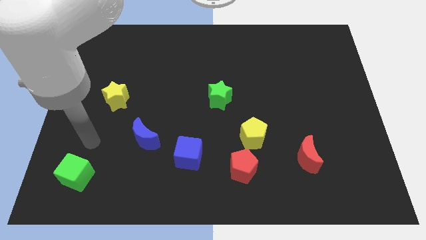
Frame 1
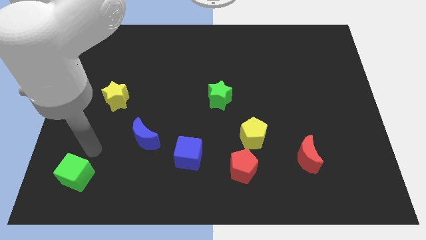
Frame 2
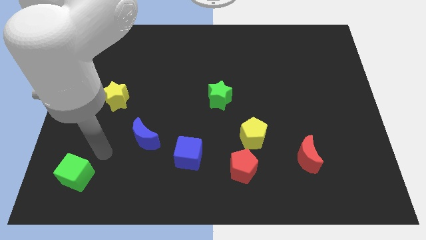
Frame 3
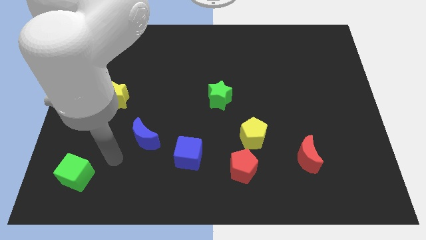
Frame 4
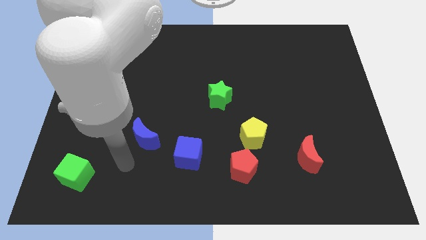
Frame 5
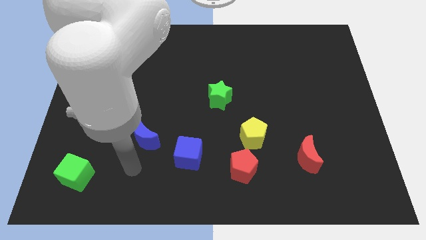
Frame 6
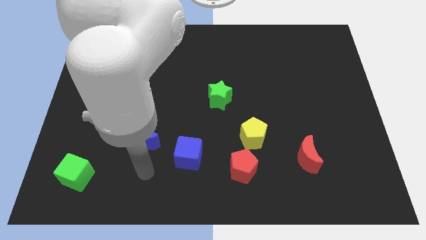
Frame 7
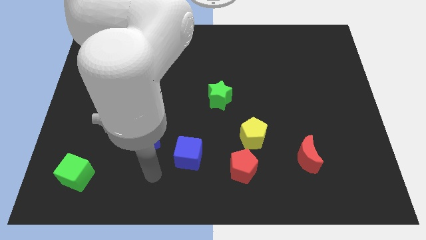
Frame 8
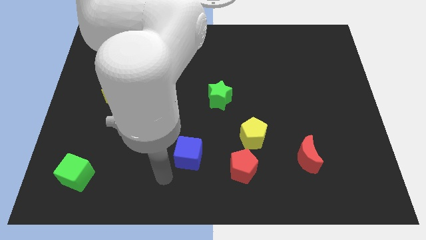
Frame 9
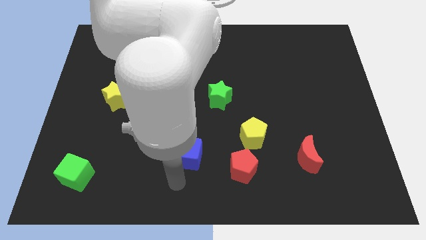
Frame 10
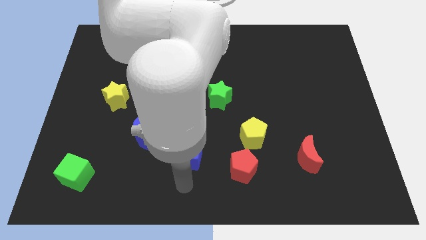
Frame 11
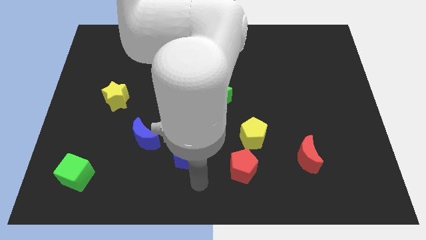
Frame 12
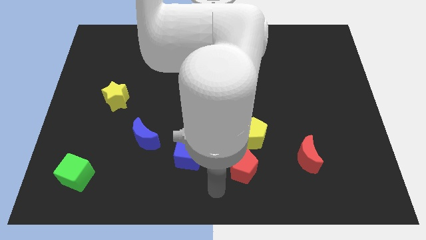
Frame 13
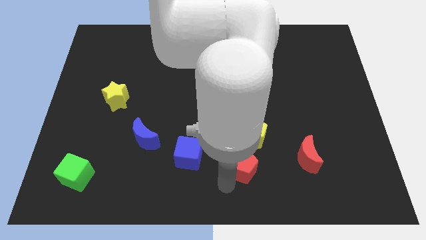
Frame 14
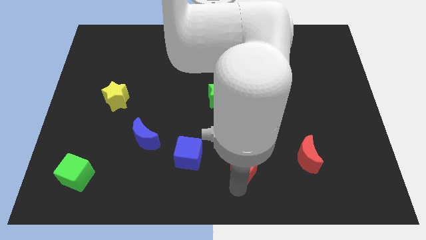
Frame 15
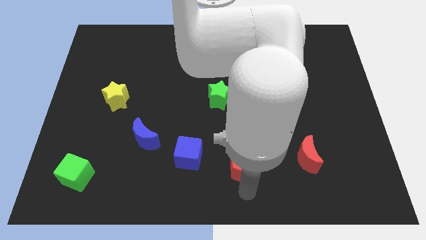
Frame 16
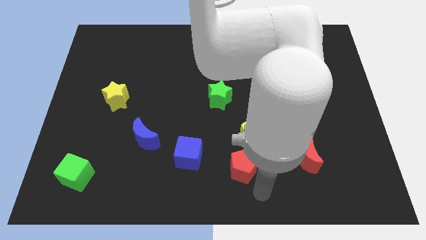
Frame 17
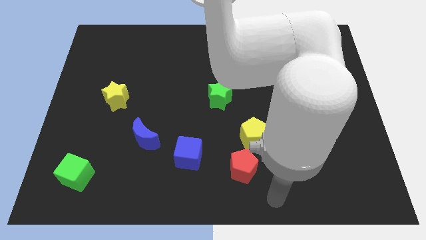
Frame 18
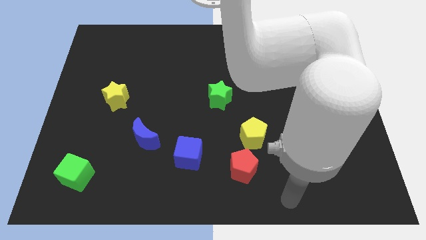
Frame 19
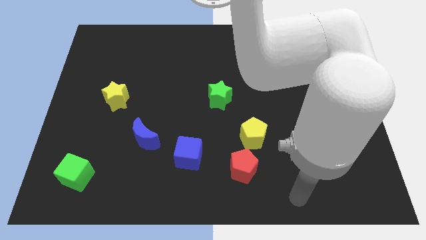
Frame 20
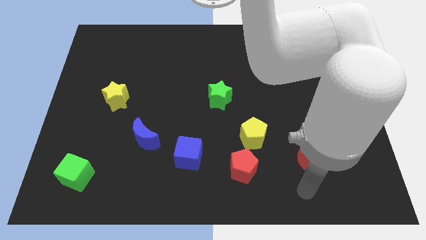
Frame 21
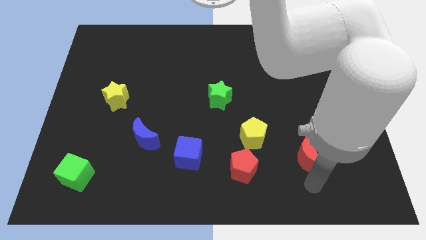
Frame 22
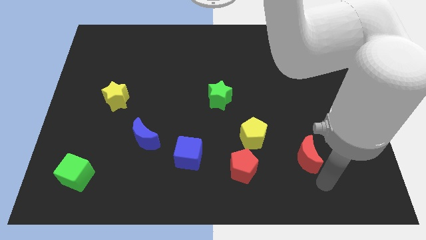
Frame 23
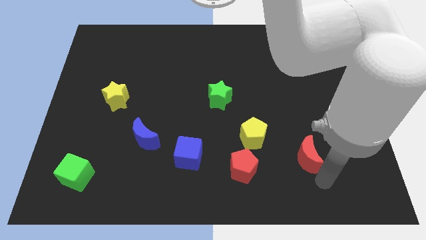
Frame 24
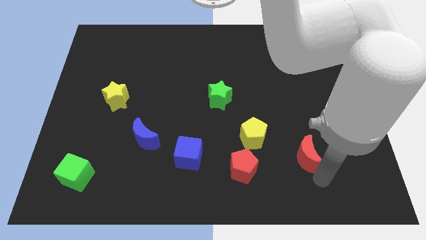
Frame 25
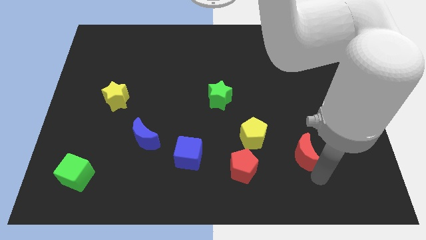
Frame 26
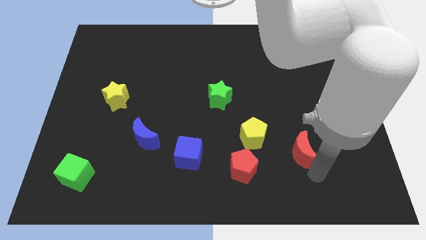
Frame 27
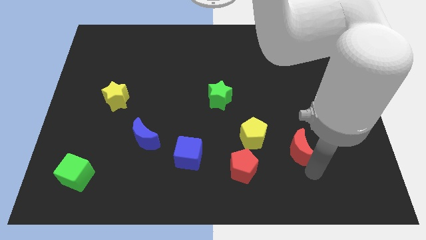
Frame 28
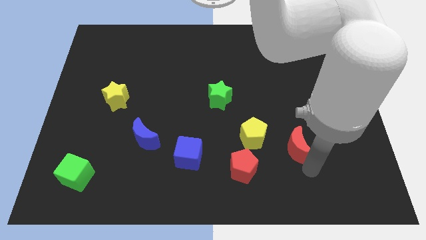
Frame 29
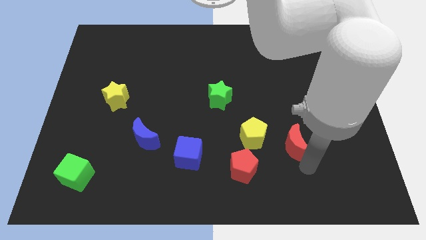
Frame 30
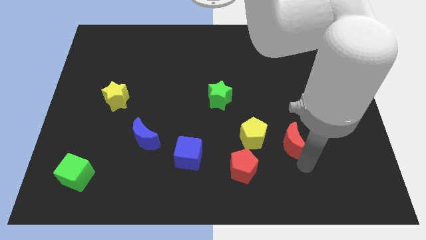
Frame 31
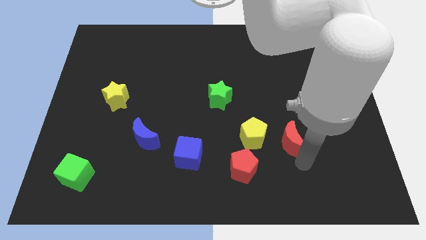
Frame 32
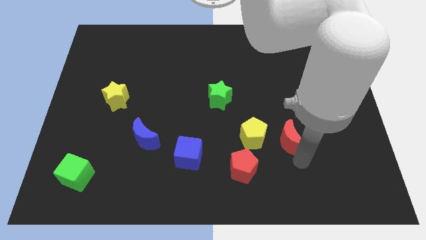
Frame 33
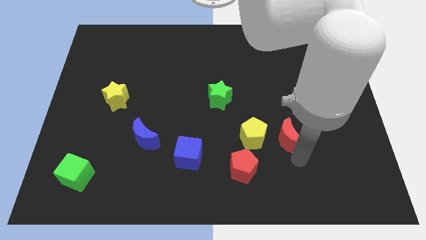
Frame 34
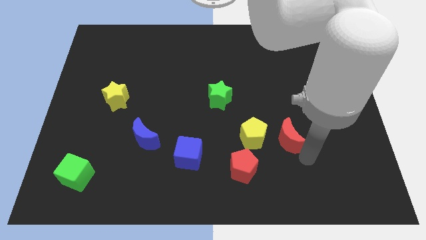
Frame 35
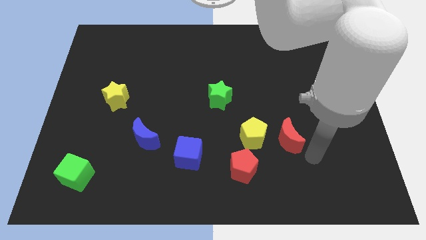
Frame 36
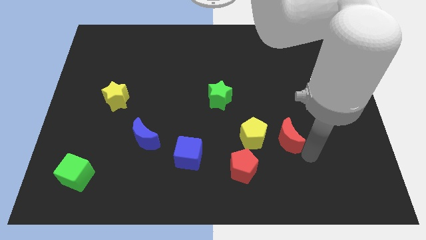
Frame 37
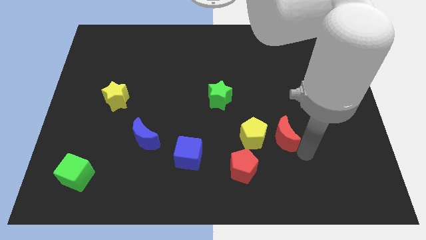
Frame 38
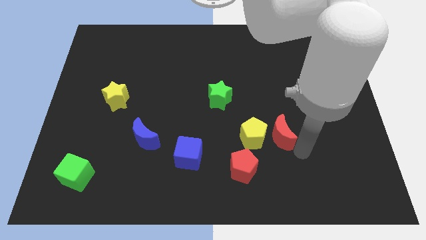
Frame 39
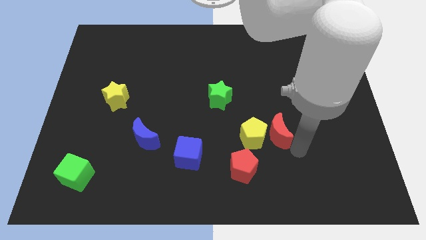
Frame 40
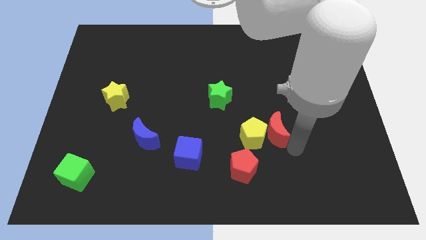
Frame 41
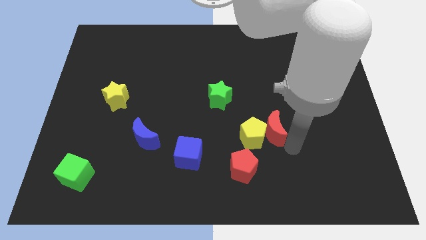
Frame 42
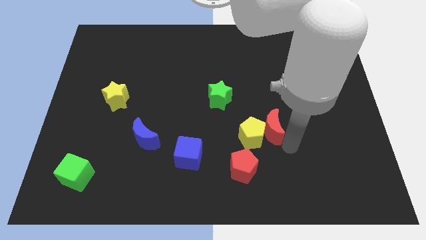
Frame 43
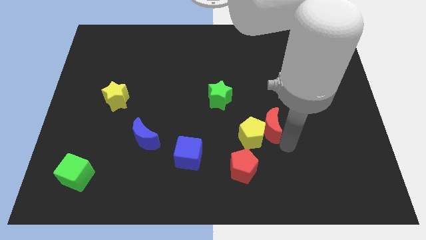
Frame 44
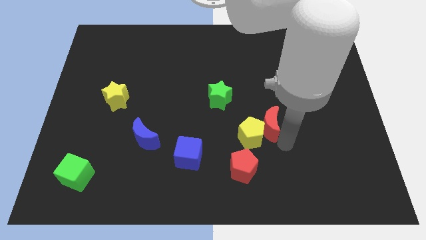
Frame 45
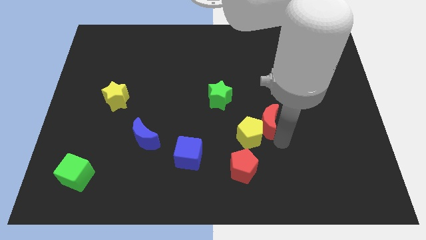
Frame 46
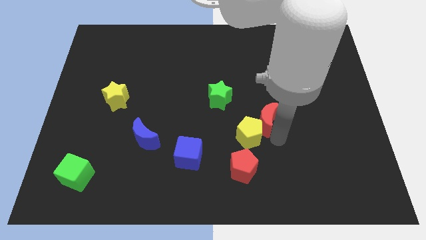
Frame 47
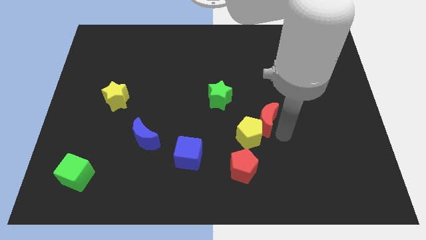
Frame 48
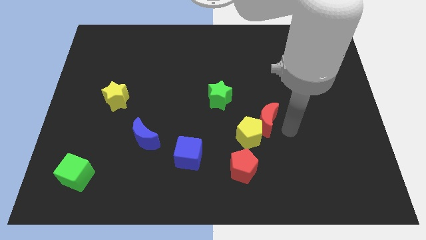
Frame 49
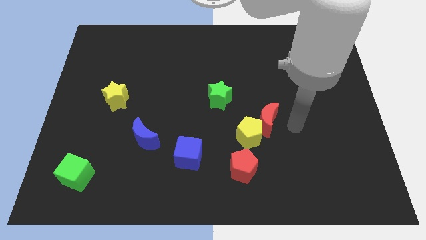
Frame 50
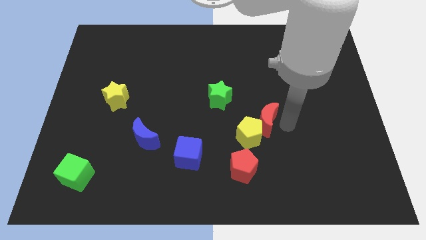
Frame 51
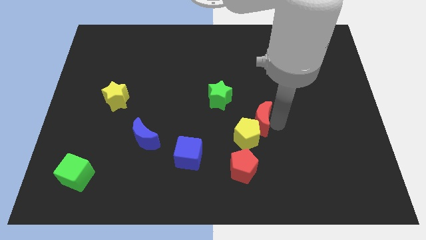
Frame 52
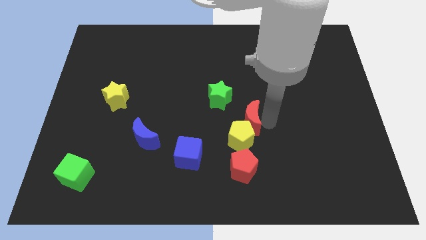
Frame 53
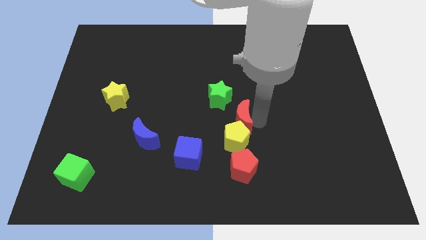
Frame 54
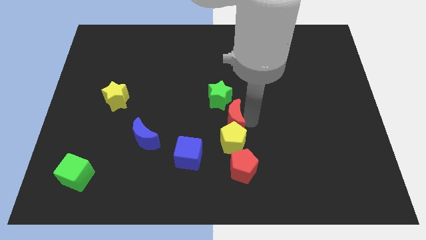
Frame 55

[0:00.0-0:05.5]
put the red moon to the top left of the yellow pentagon

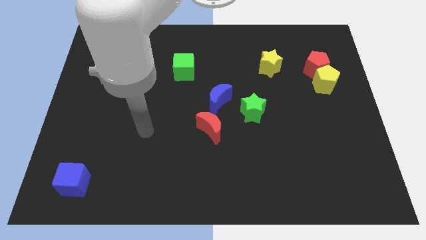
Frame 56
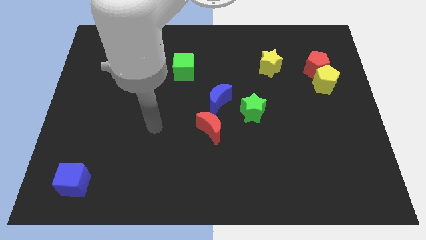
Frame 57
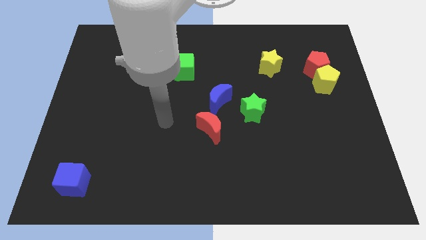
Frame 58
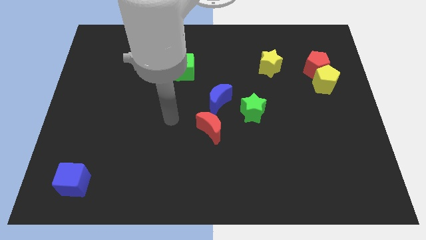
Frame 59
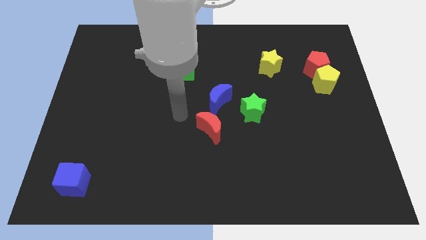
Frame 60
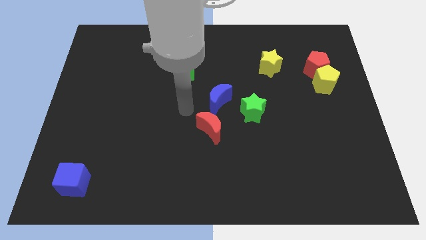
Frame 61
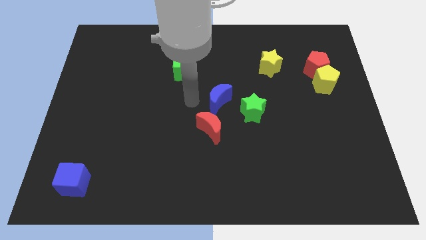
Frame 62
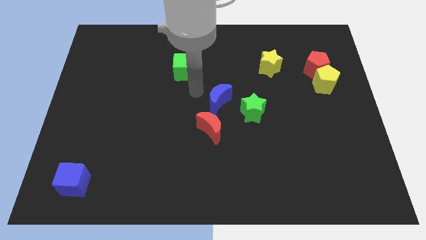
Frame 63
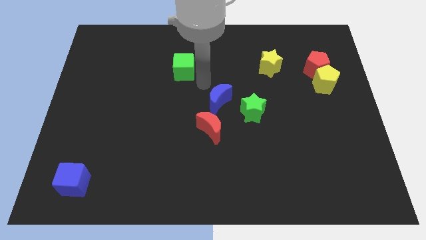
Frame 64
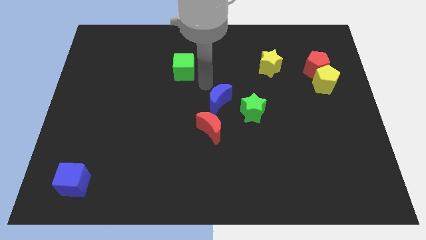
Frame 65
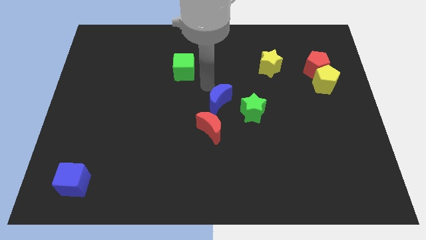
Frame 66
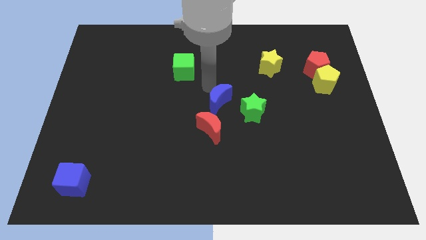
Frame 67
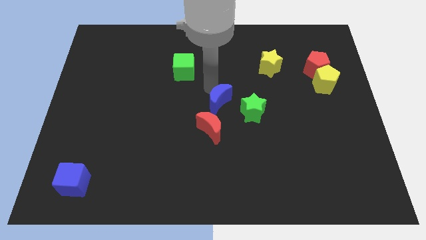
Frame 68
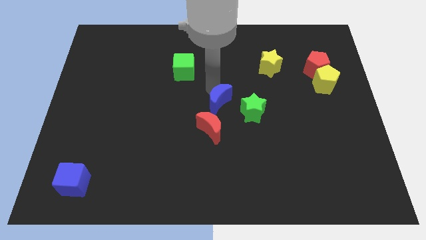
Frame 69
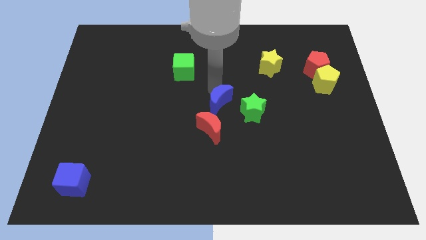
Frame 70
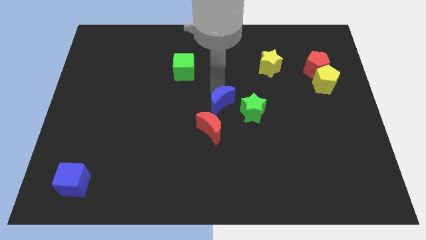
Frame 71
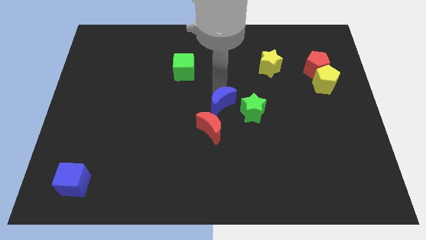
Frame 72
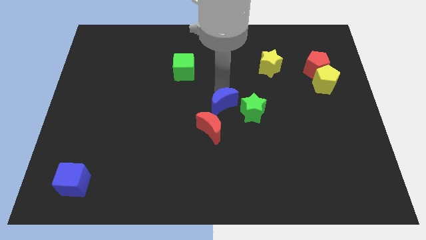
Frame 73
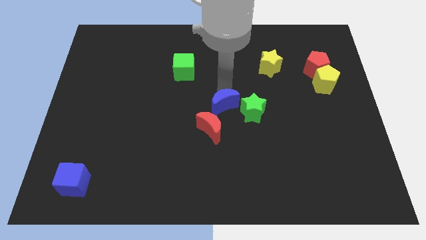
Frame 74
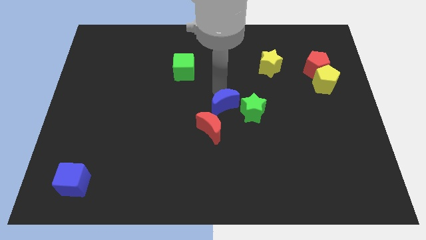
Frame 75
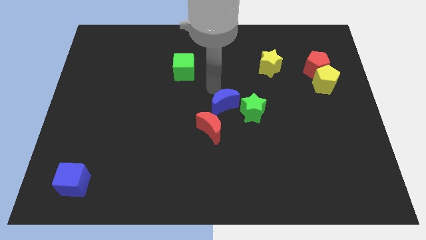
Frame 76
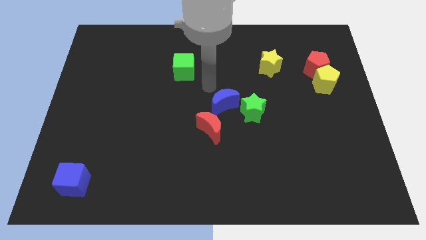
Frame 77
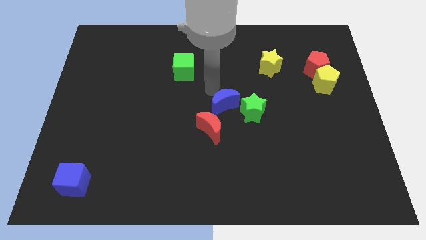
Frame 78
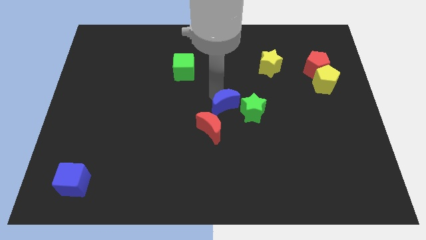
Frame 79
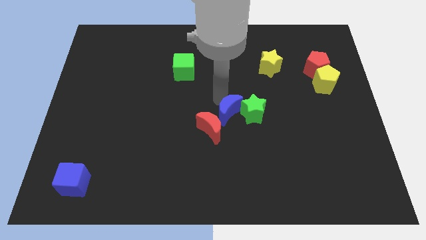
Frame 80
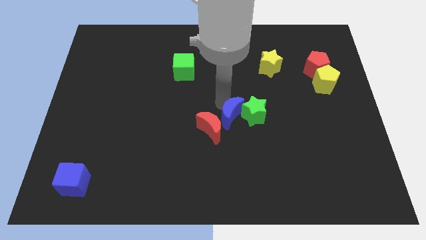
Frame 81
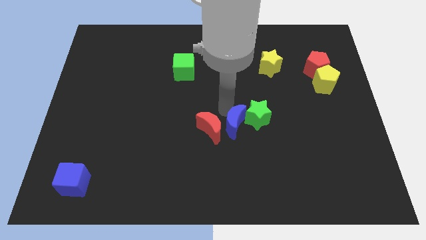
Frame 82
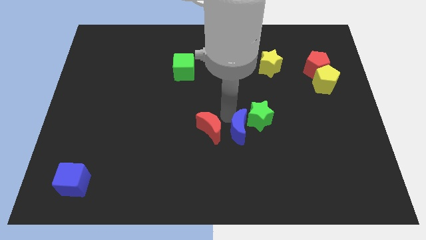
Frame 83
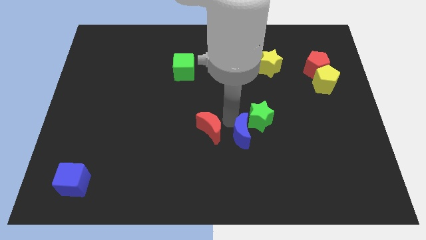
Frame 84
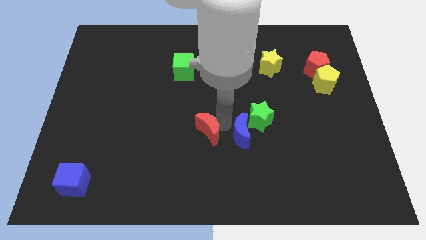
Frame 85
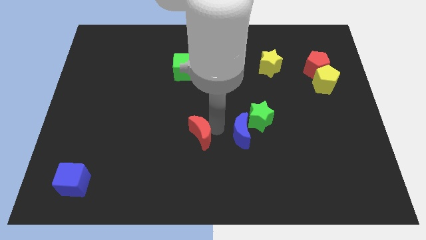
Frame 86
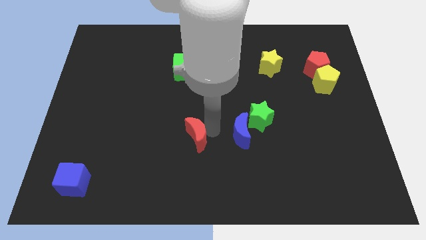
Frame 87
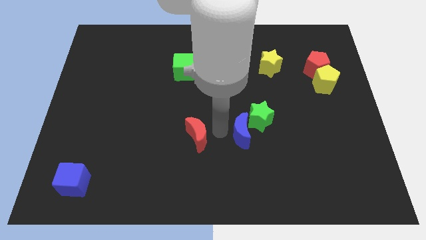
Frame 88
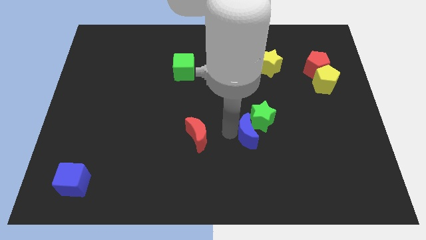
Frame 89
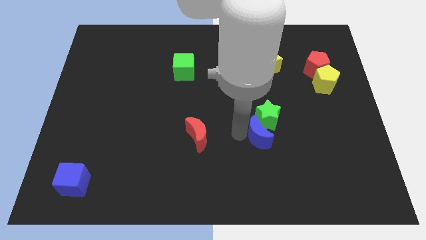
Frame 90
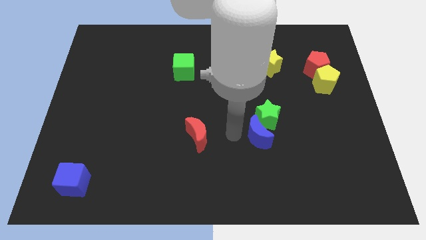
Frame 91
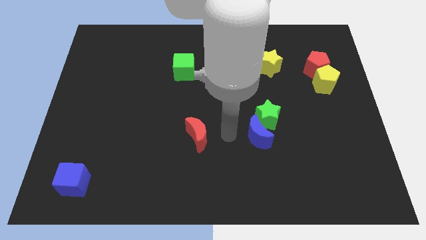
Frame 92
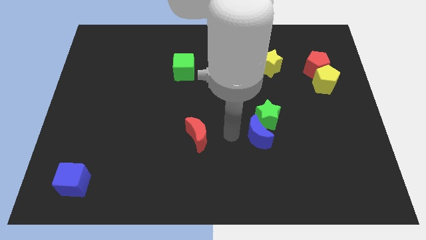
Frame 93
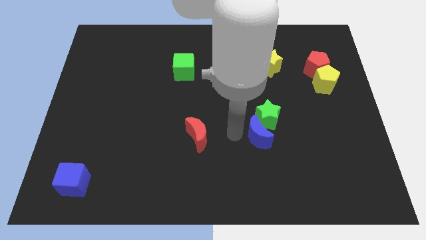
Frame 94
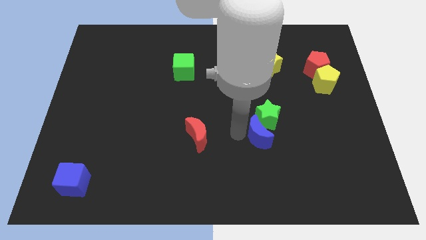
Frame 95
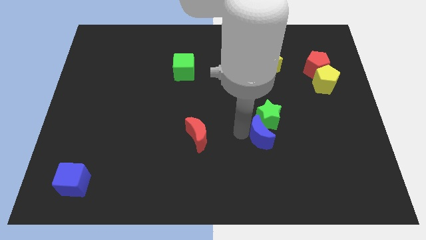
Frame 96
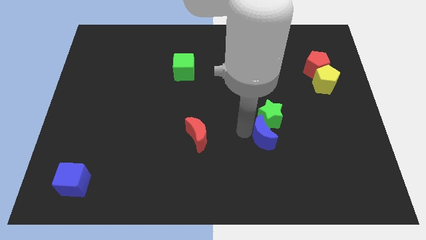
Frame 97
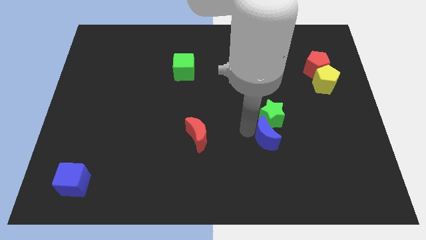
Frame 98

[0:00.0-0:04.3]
slide the blue moon to the bottom right side of the green star
